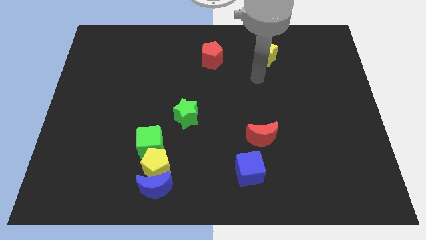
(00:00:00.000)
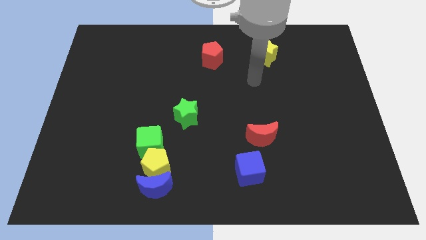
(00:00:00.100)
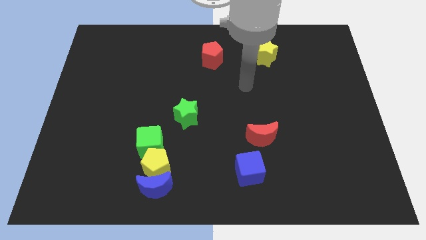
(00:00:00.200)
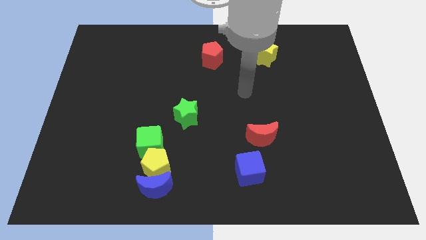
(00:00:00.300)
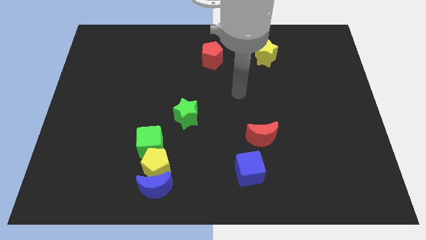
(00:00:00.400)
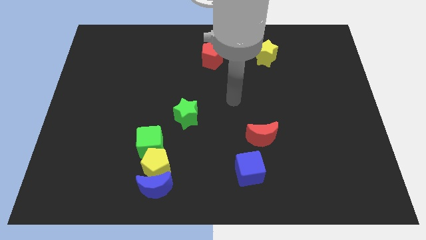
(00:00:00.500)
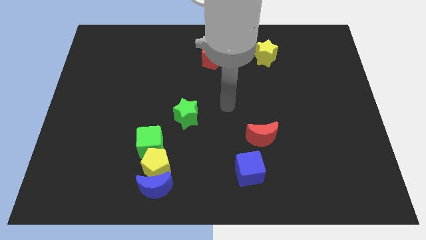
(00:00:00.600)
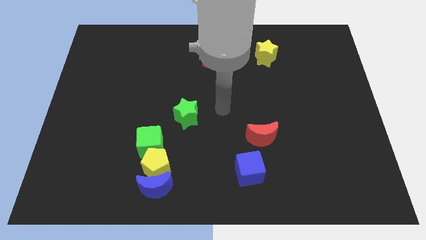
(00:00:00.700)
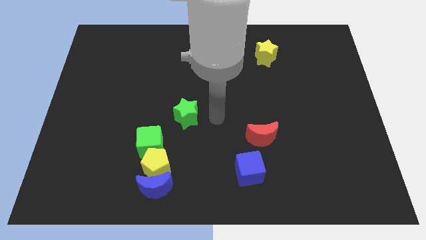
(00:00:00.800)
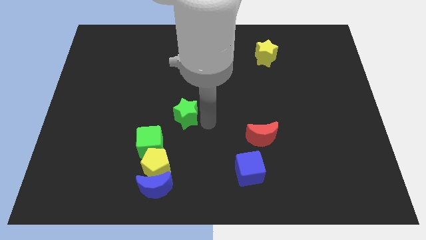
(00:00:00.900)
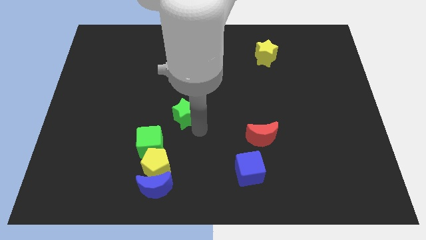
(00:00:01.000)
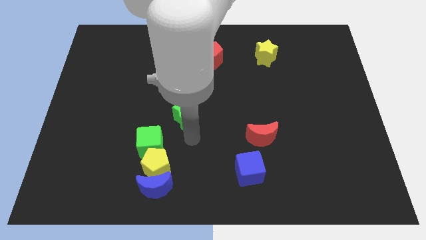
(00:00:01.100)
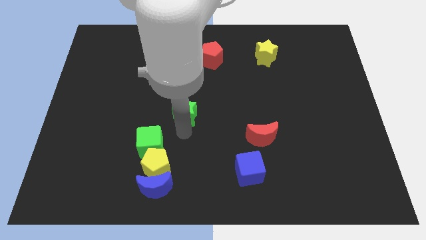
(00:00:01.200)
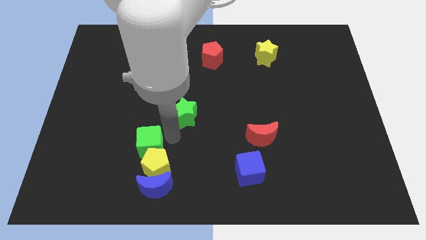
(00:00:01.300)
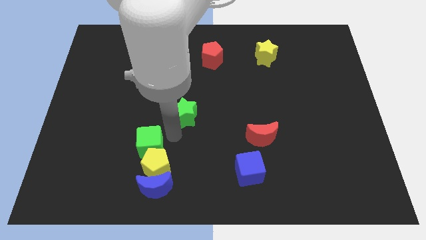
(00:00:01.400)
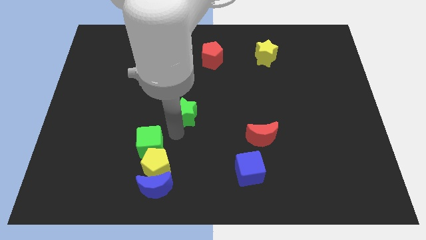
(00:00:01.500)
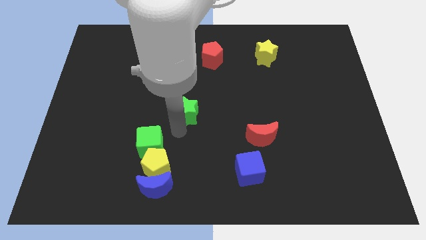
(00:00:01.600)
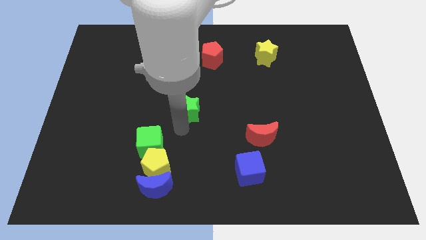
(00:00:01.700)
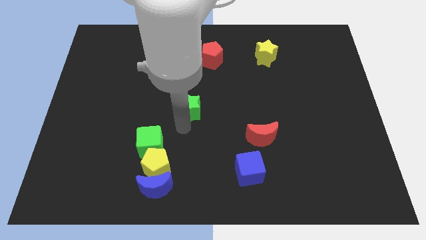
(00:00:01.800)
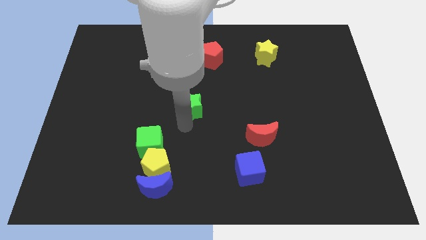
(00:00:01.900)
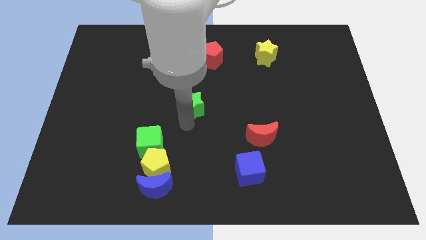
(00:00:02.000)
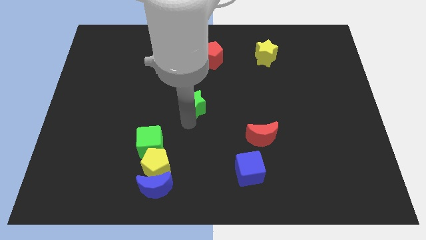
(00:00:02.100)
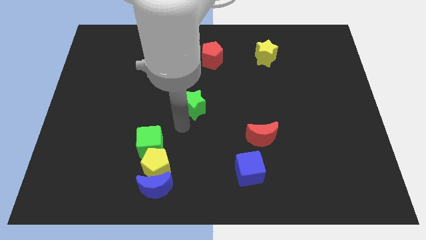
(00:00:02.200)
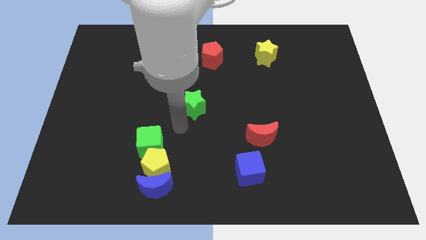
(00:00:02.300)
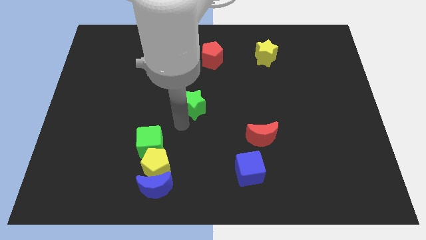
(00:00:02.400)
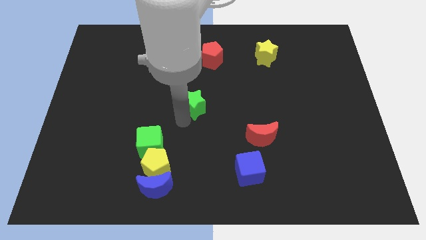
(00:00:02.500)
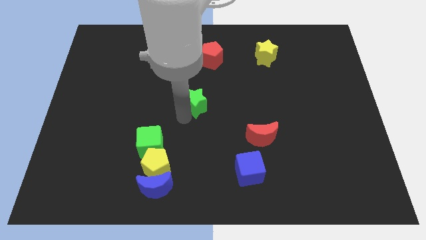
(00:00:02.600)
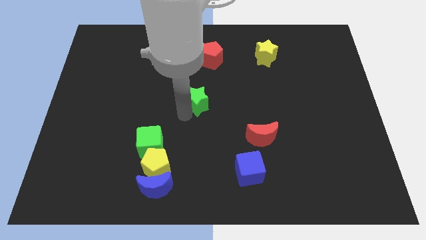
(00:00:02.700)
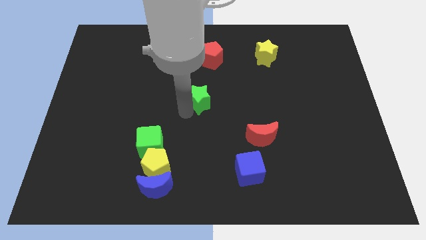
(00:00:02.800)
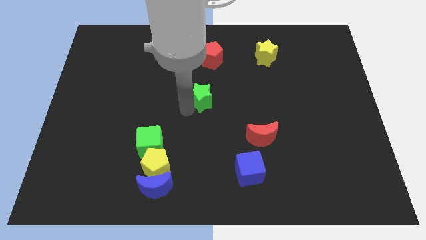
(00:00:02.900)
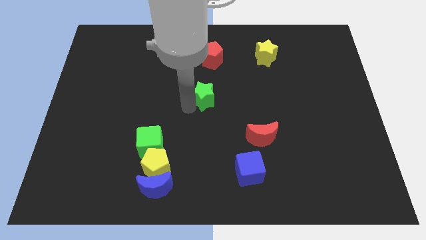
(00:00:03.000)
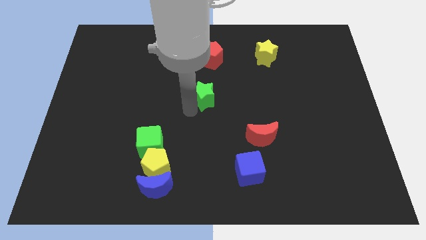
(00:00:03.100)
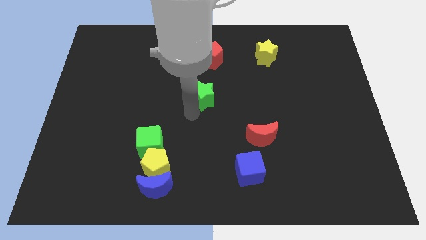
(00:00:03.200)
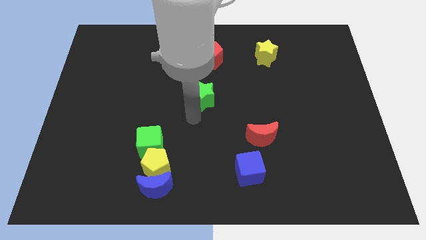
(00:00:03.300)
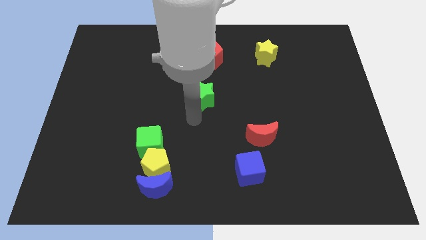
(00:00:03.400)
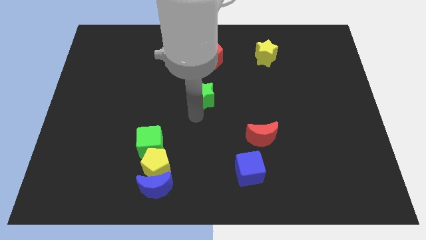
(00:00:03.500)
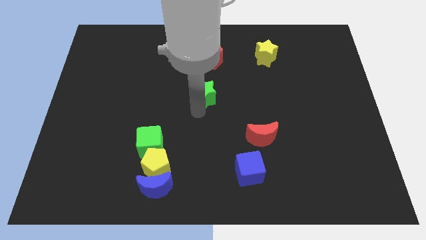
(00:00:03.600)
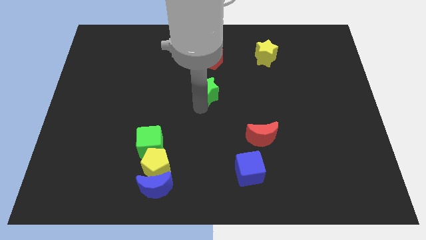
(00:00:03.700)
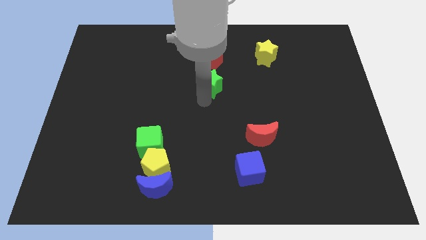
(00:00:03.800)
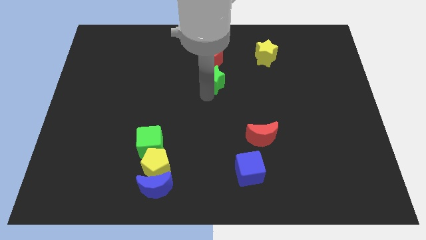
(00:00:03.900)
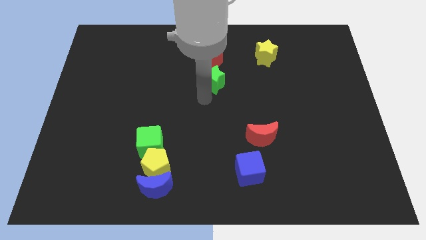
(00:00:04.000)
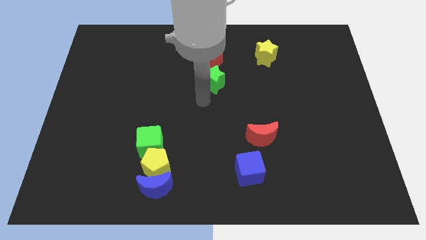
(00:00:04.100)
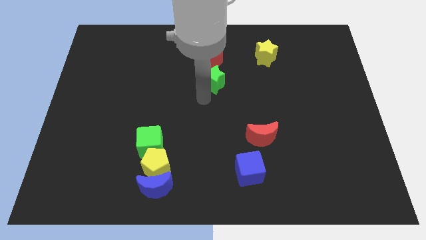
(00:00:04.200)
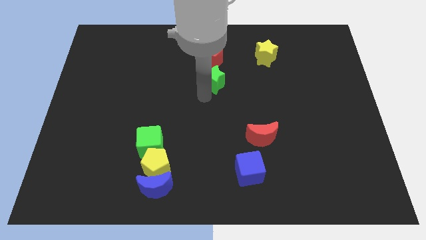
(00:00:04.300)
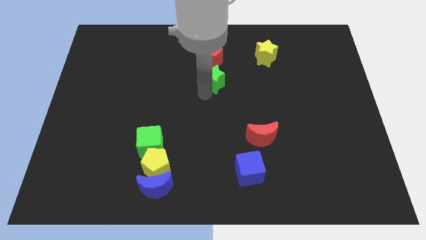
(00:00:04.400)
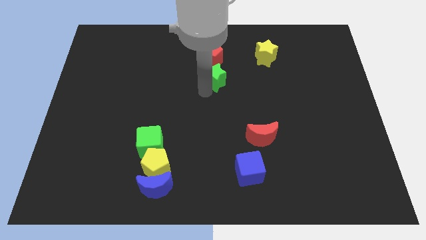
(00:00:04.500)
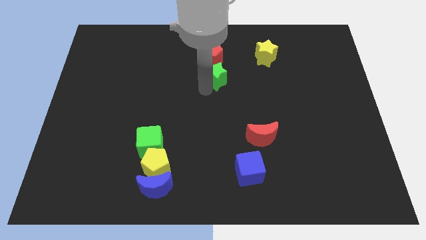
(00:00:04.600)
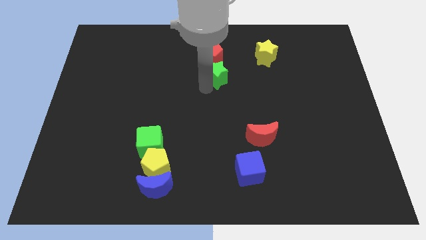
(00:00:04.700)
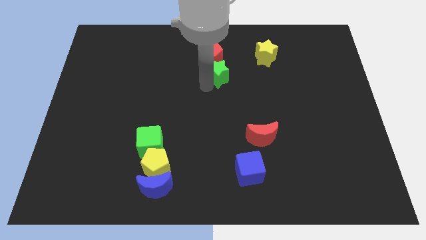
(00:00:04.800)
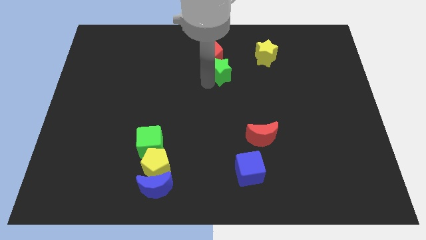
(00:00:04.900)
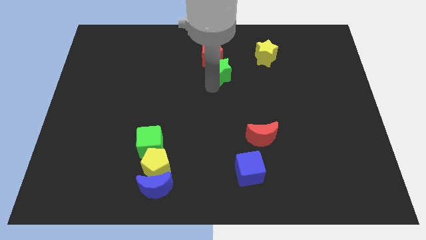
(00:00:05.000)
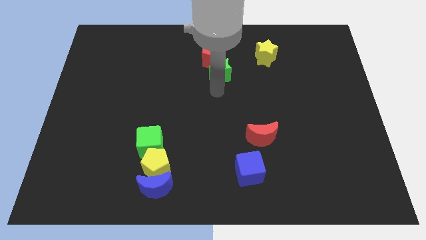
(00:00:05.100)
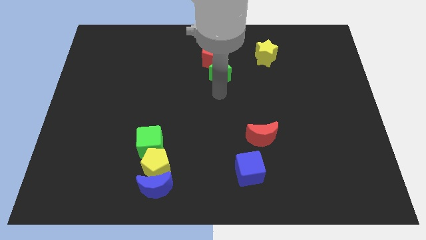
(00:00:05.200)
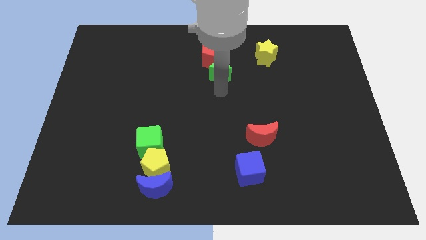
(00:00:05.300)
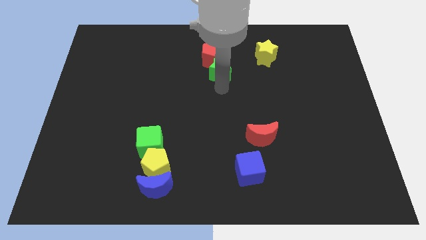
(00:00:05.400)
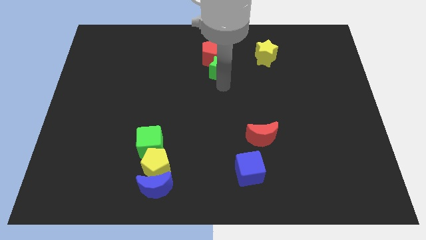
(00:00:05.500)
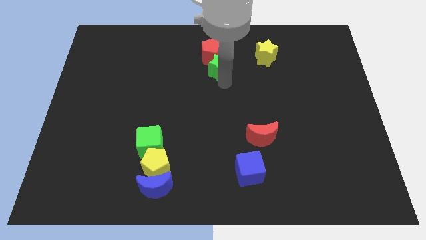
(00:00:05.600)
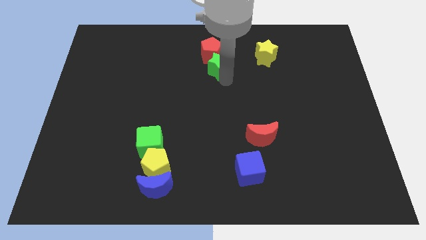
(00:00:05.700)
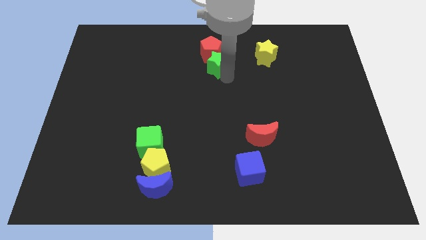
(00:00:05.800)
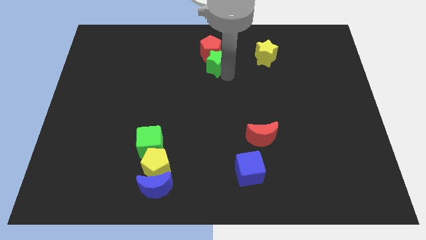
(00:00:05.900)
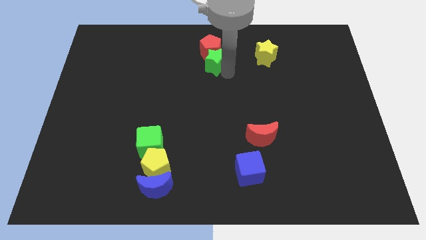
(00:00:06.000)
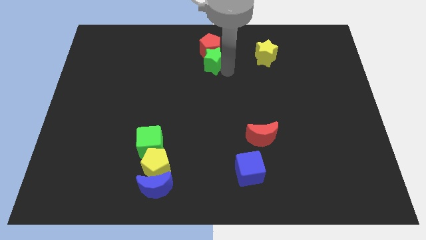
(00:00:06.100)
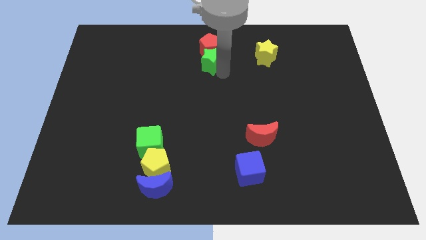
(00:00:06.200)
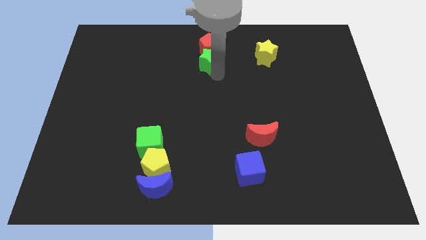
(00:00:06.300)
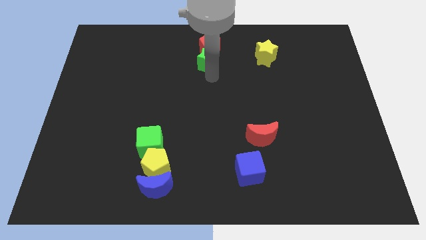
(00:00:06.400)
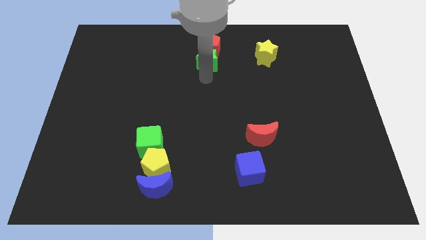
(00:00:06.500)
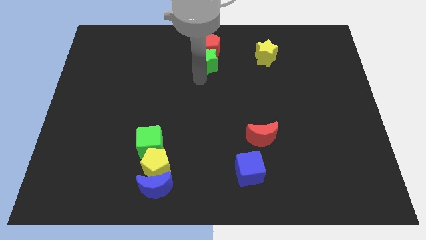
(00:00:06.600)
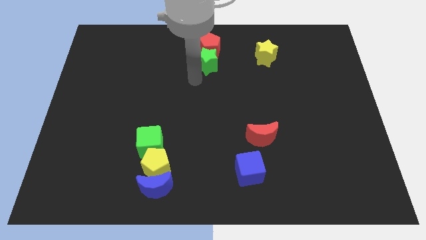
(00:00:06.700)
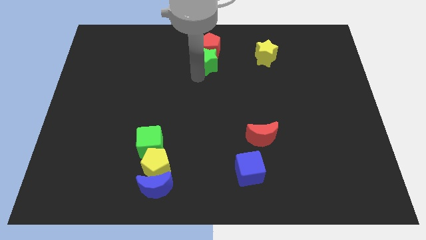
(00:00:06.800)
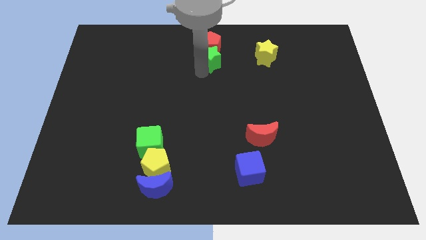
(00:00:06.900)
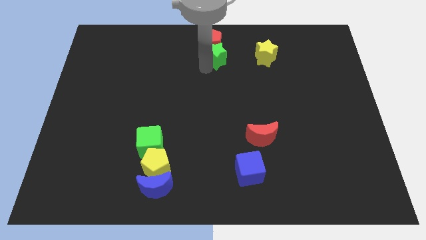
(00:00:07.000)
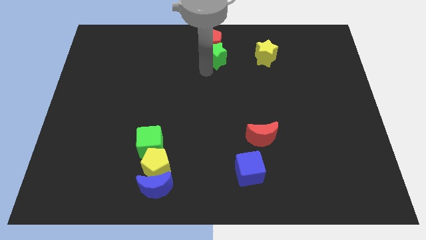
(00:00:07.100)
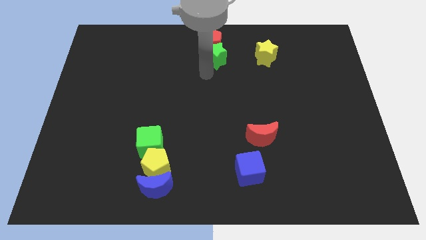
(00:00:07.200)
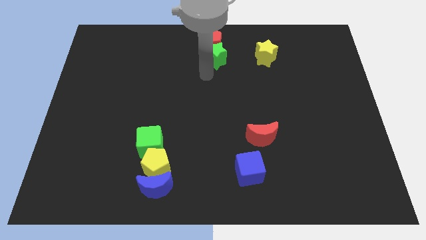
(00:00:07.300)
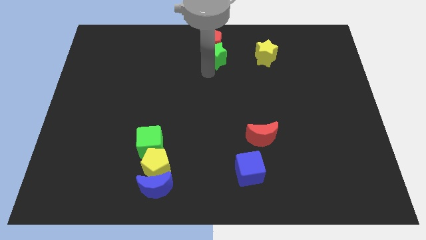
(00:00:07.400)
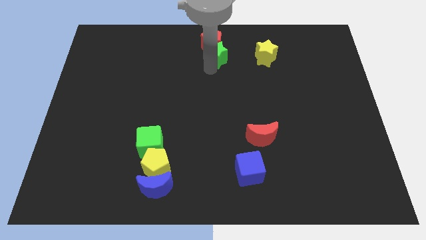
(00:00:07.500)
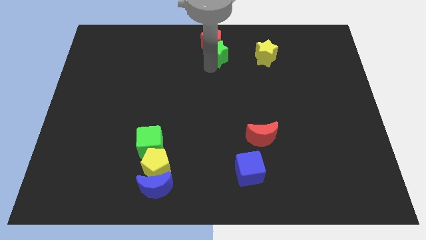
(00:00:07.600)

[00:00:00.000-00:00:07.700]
slide the green star to the towards your base
